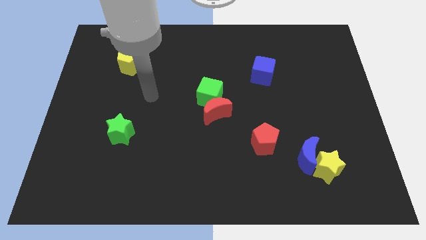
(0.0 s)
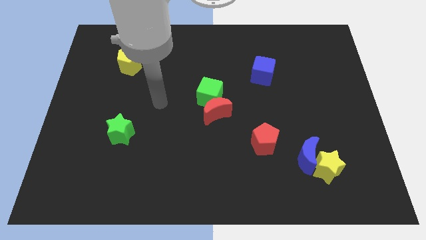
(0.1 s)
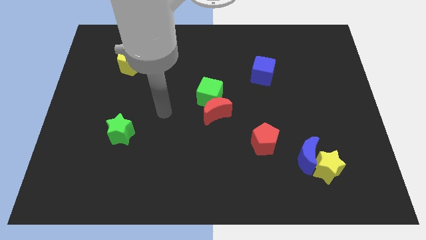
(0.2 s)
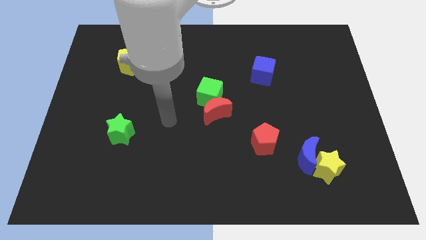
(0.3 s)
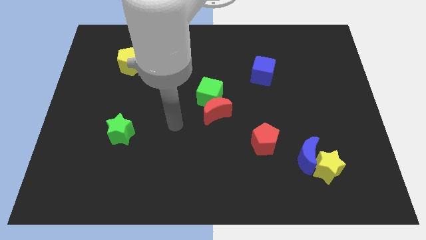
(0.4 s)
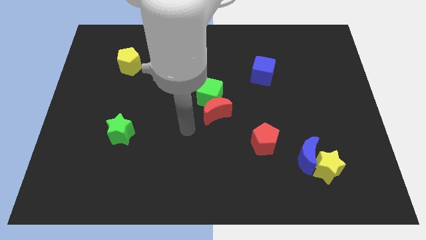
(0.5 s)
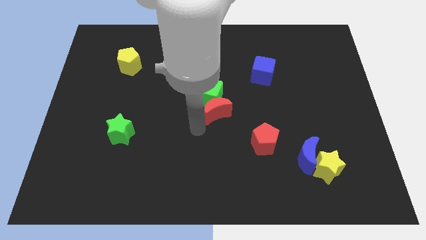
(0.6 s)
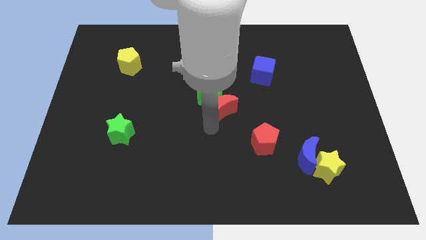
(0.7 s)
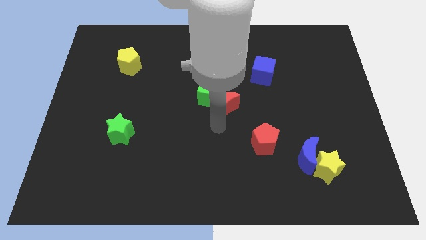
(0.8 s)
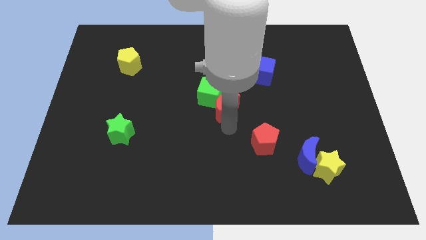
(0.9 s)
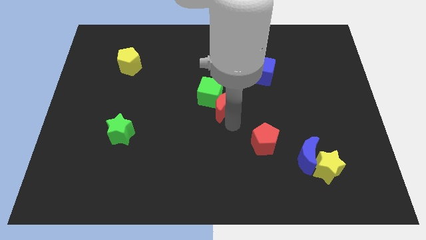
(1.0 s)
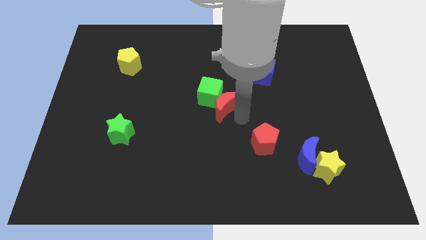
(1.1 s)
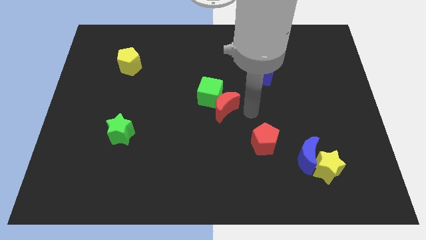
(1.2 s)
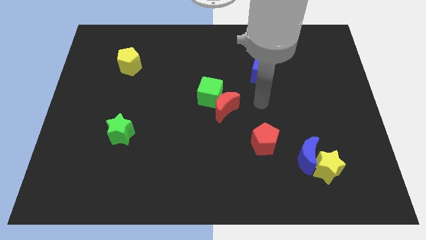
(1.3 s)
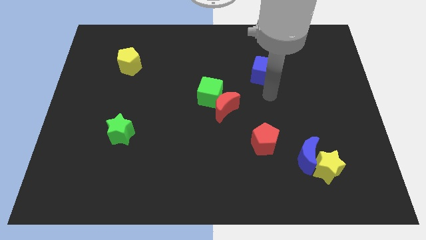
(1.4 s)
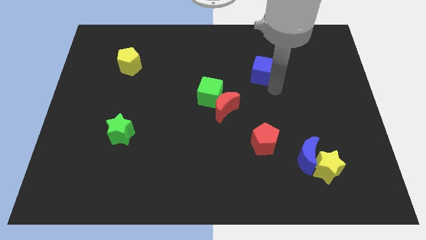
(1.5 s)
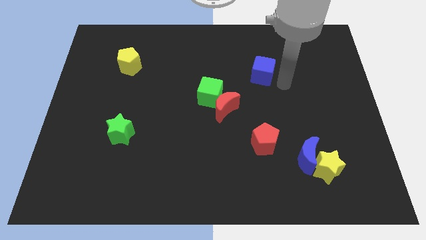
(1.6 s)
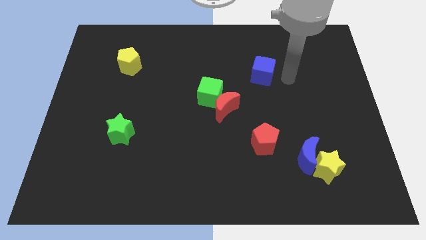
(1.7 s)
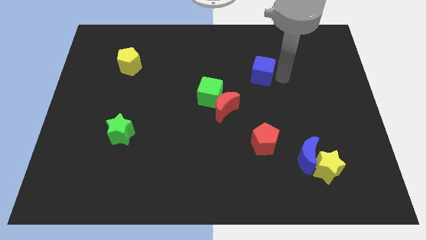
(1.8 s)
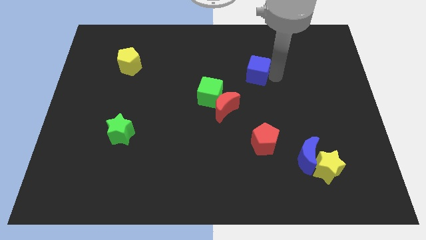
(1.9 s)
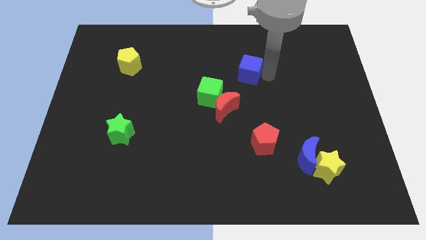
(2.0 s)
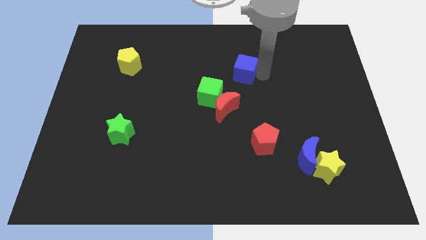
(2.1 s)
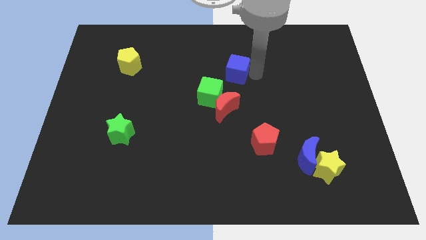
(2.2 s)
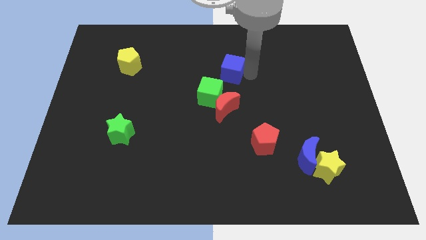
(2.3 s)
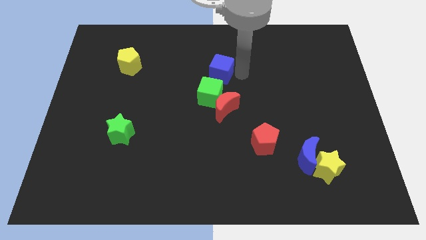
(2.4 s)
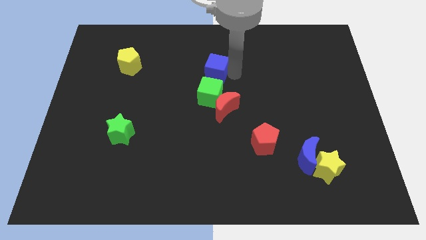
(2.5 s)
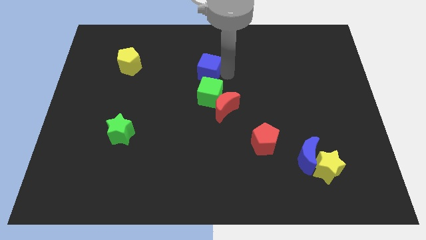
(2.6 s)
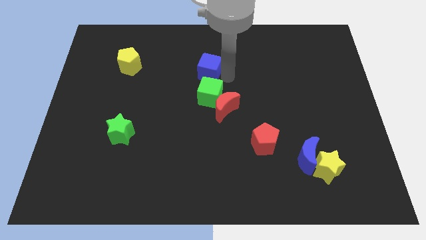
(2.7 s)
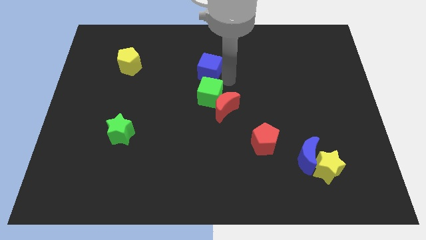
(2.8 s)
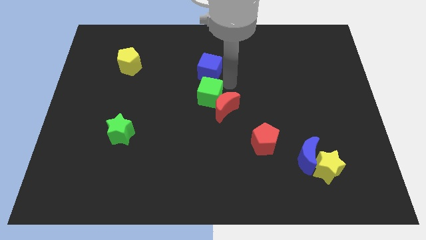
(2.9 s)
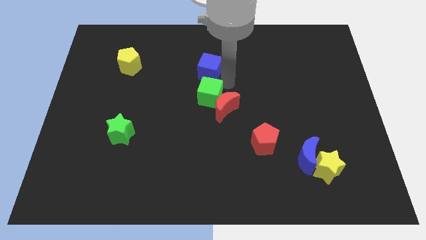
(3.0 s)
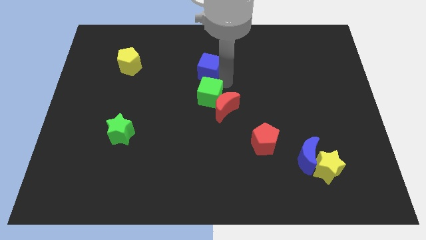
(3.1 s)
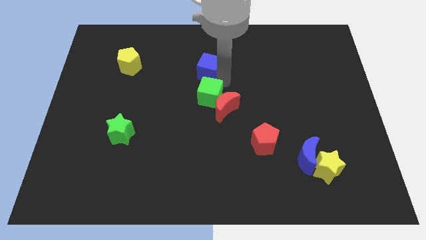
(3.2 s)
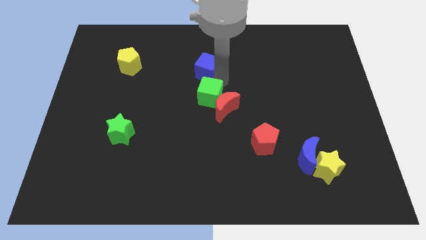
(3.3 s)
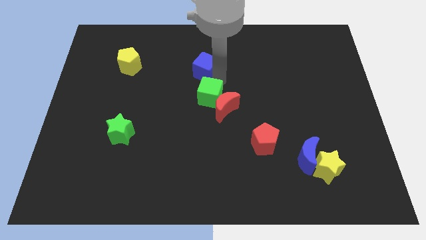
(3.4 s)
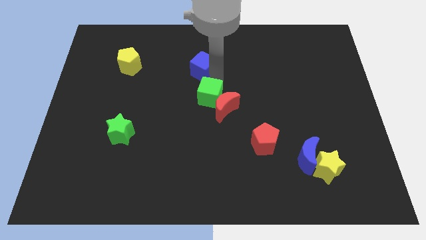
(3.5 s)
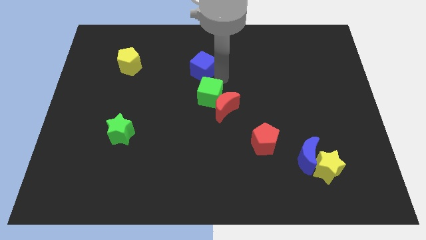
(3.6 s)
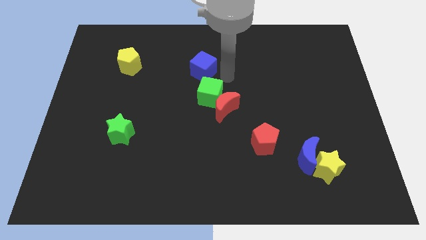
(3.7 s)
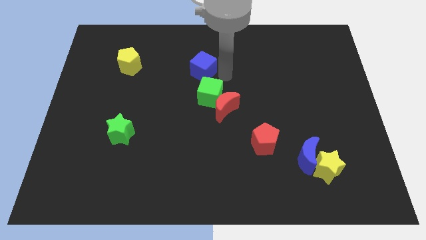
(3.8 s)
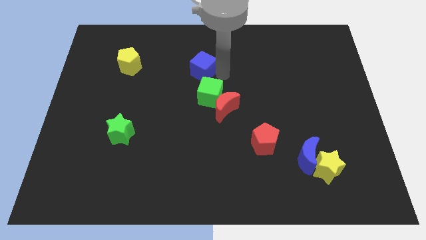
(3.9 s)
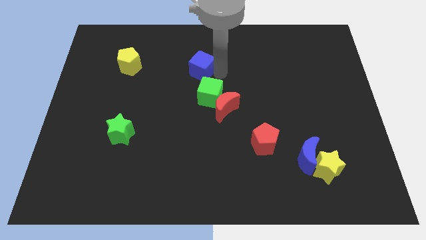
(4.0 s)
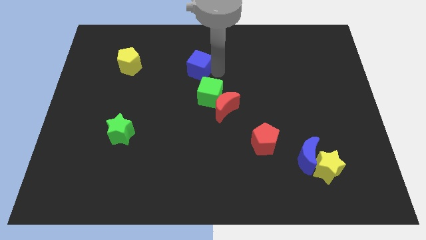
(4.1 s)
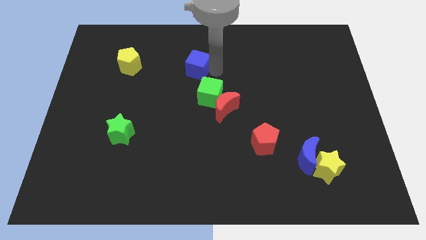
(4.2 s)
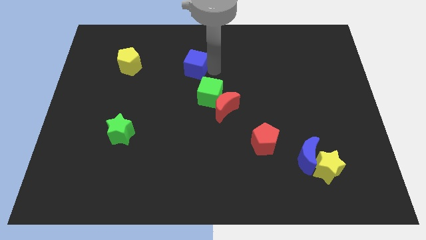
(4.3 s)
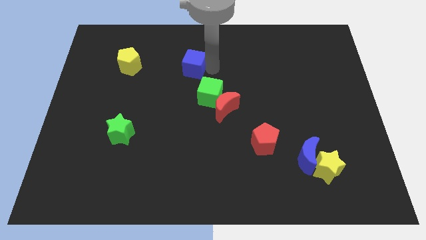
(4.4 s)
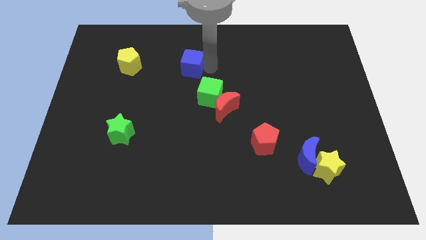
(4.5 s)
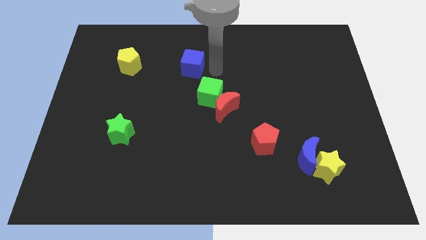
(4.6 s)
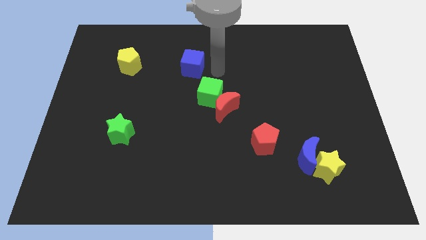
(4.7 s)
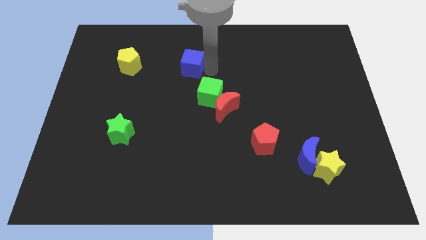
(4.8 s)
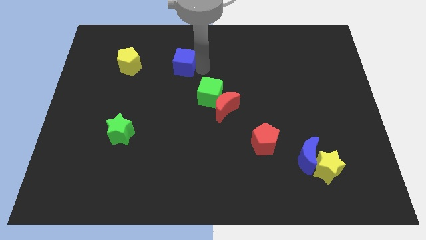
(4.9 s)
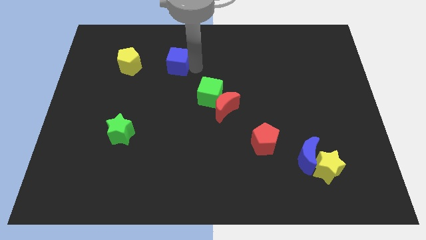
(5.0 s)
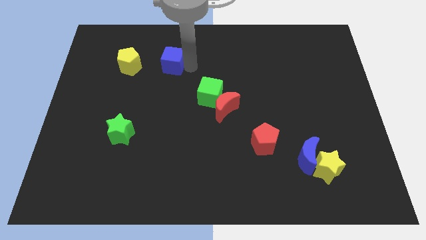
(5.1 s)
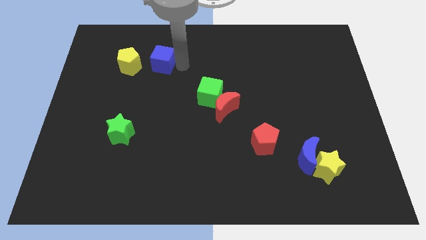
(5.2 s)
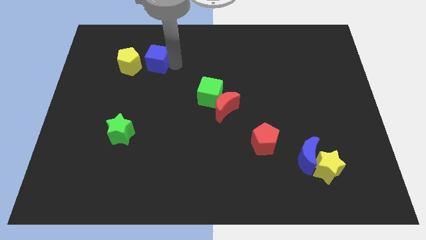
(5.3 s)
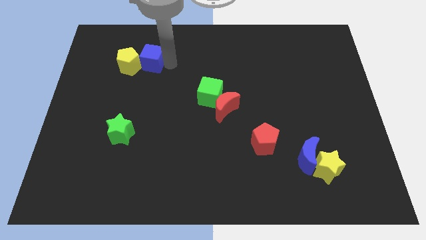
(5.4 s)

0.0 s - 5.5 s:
put the blue cube next to the yellow pentagon
